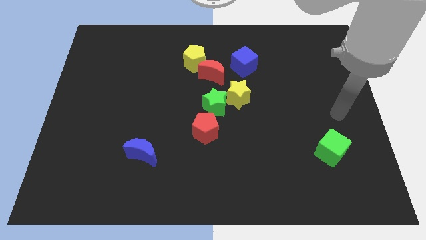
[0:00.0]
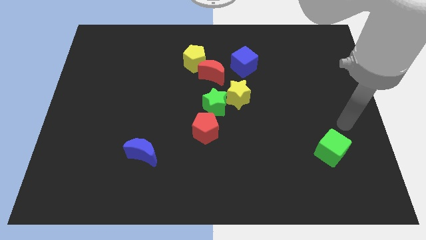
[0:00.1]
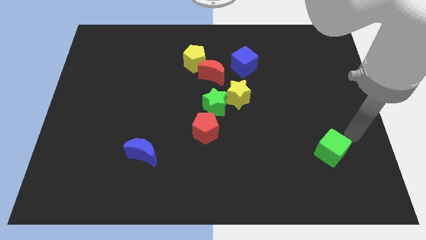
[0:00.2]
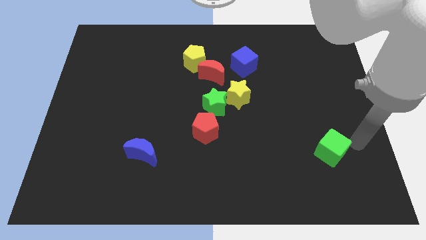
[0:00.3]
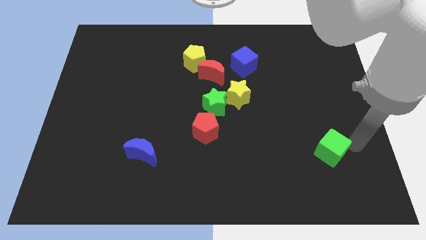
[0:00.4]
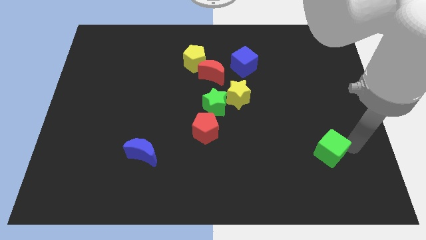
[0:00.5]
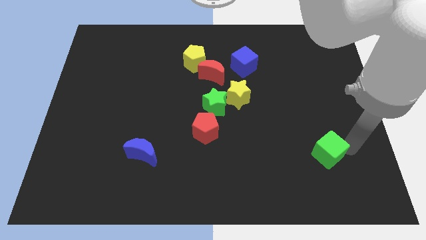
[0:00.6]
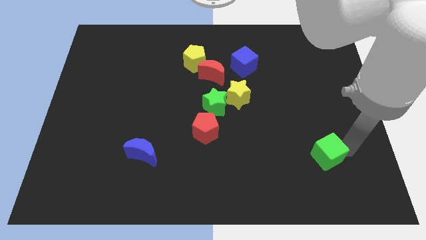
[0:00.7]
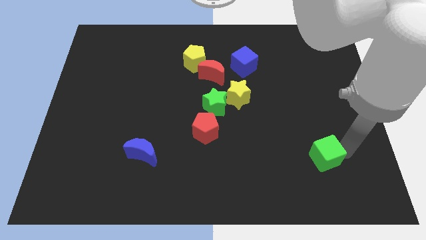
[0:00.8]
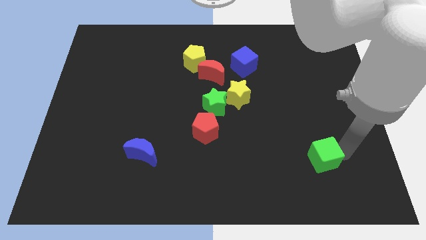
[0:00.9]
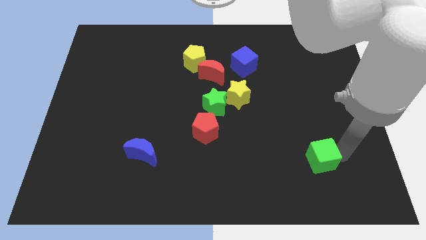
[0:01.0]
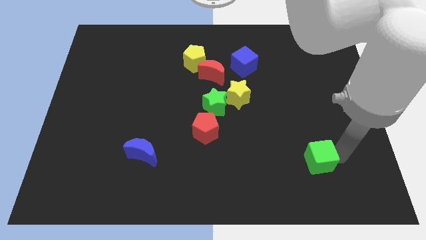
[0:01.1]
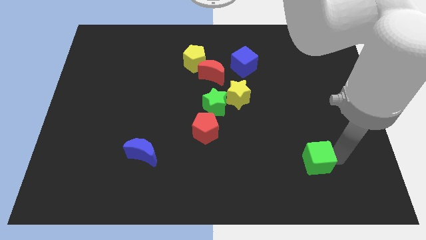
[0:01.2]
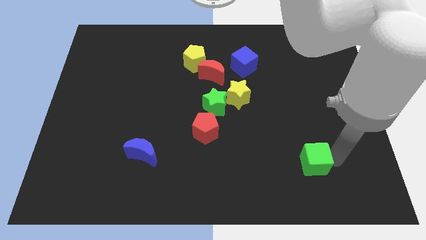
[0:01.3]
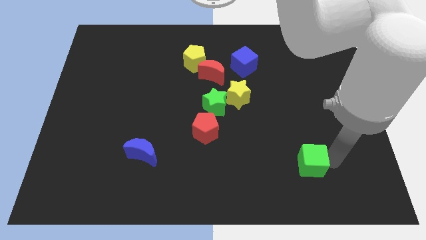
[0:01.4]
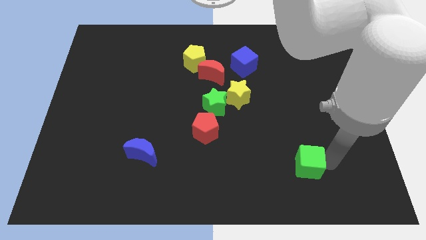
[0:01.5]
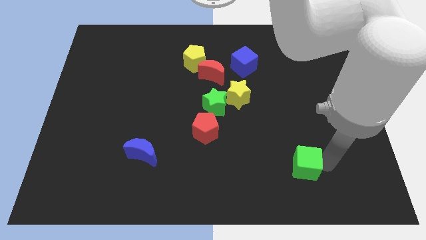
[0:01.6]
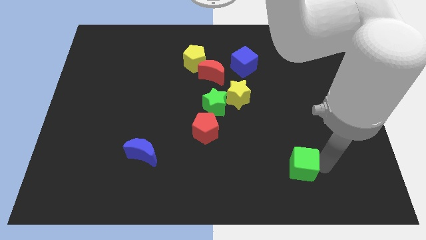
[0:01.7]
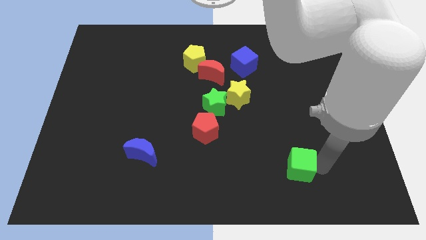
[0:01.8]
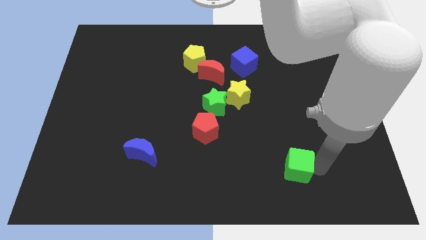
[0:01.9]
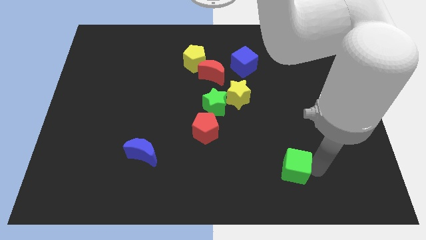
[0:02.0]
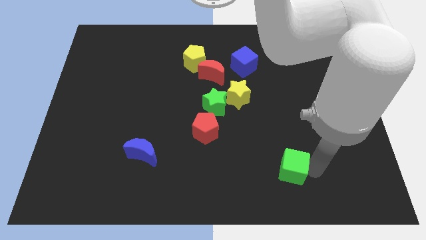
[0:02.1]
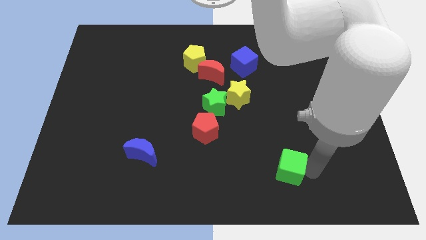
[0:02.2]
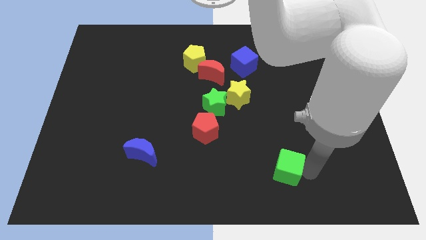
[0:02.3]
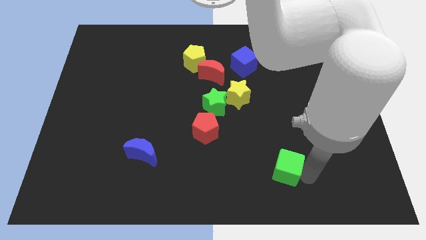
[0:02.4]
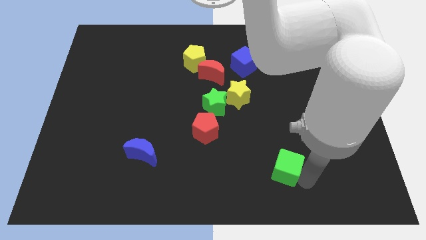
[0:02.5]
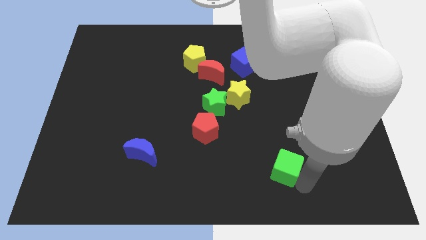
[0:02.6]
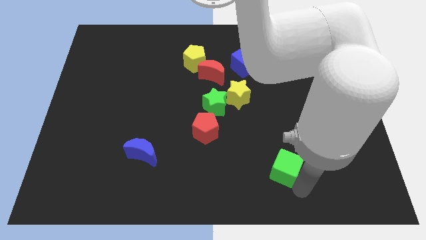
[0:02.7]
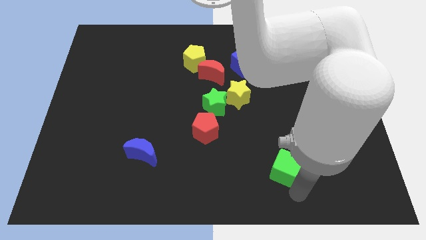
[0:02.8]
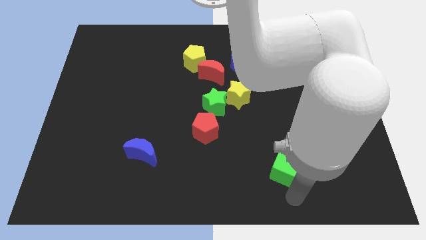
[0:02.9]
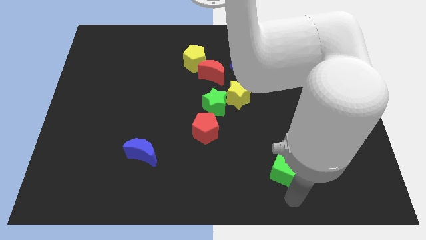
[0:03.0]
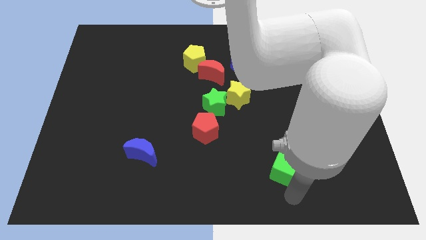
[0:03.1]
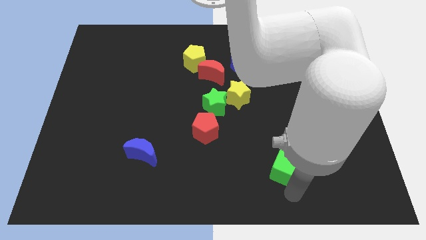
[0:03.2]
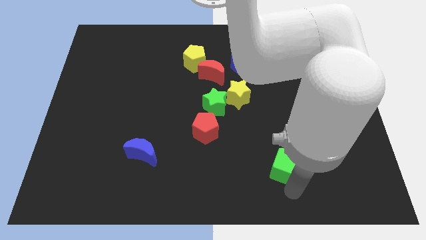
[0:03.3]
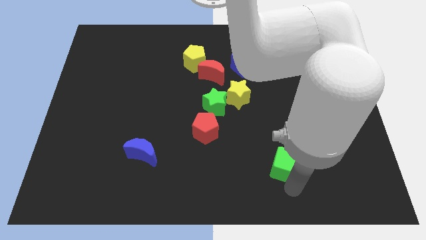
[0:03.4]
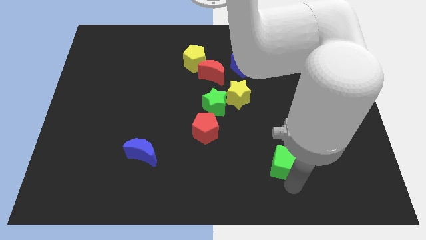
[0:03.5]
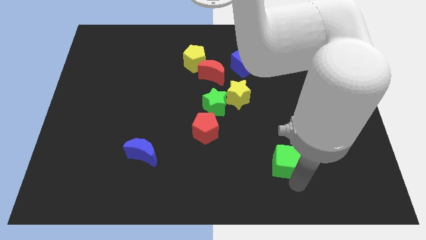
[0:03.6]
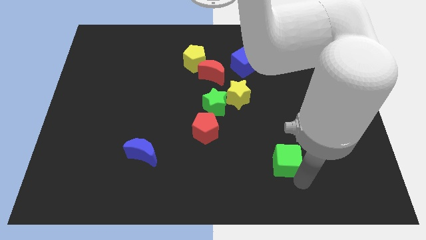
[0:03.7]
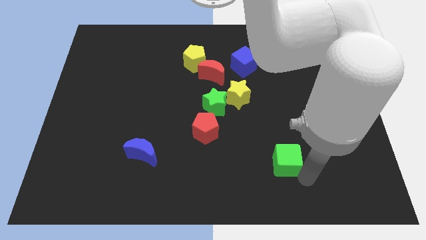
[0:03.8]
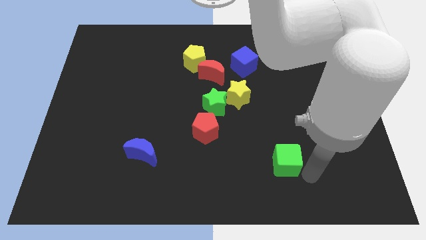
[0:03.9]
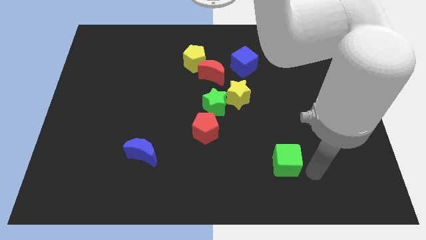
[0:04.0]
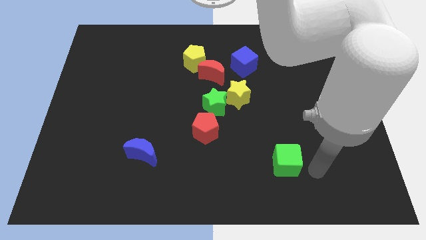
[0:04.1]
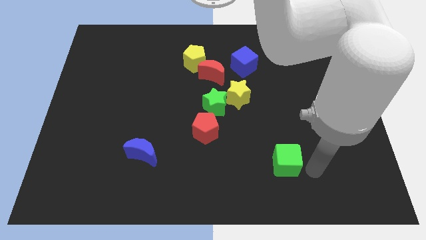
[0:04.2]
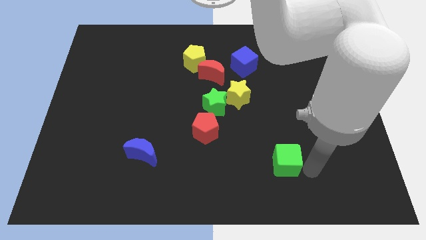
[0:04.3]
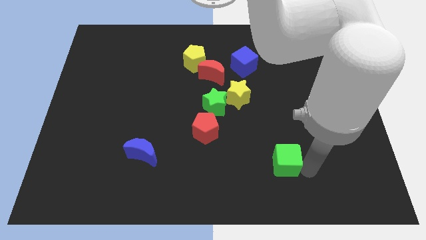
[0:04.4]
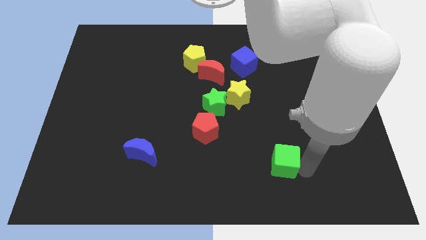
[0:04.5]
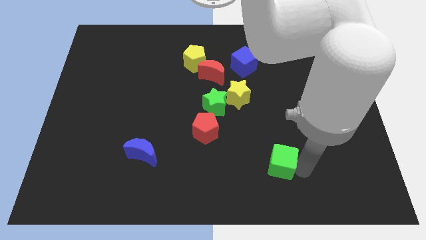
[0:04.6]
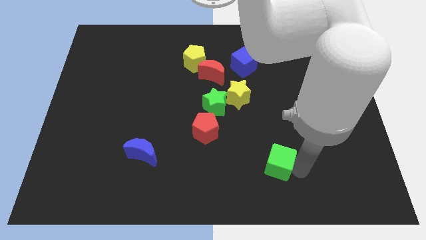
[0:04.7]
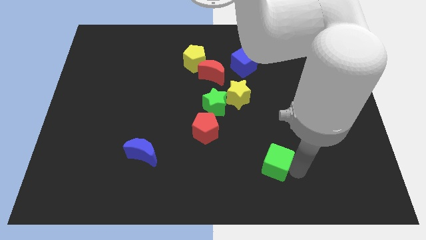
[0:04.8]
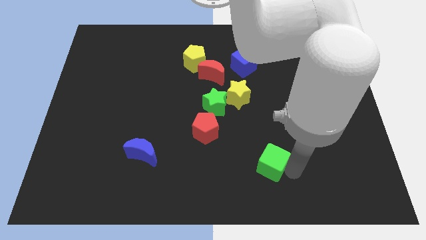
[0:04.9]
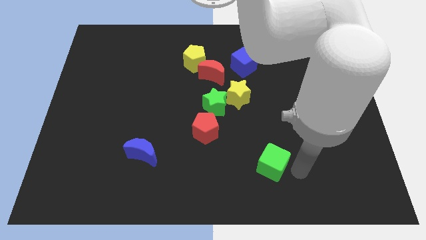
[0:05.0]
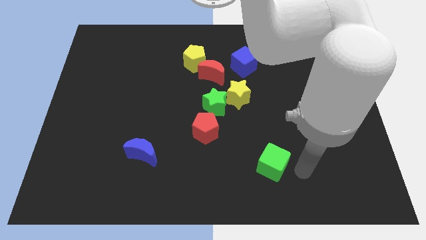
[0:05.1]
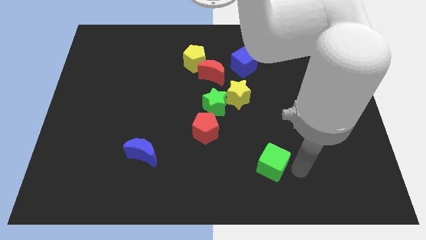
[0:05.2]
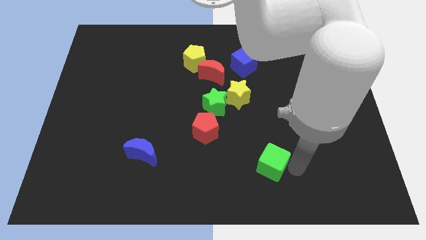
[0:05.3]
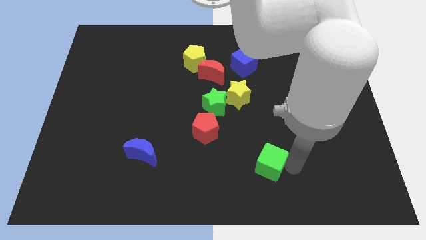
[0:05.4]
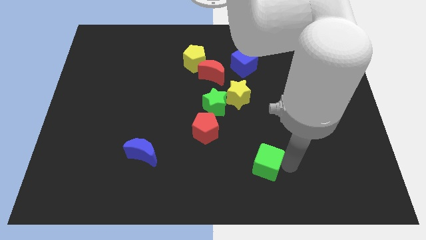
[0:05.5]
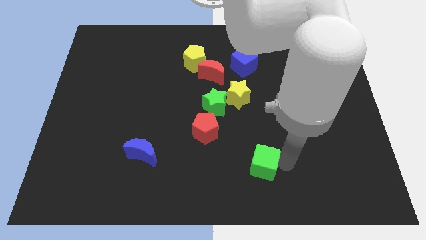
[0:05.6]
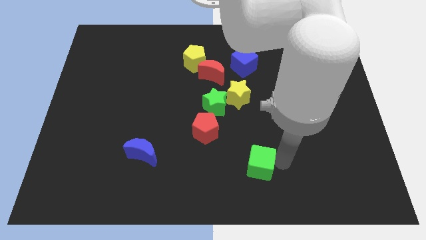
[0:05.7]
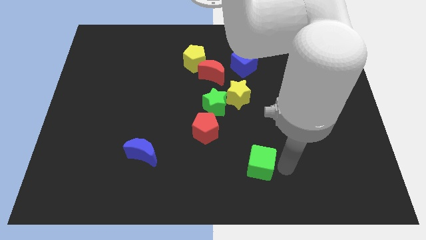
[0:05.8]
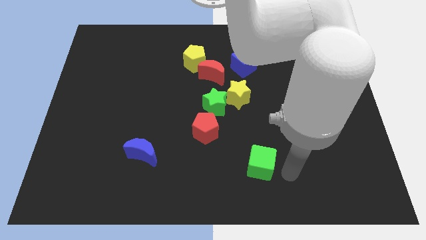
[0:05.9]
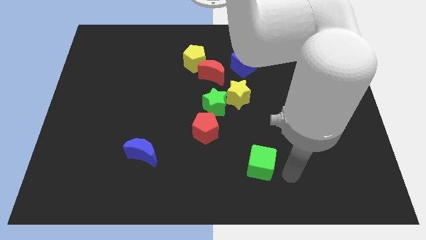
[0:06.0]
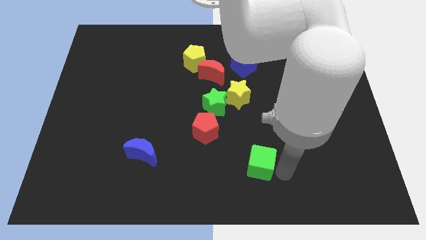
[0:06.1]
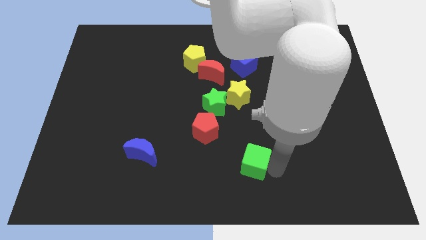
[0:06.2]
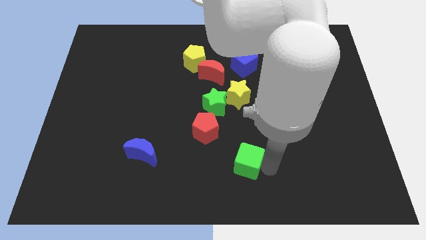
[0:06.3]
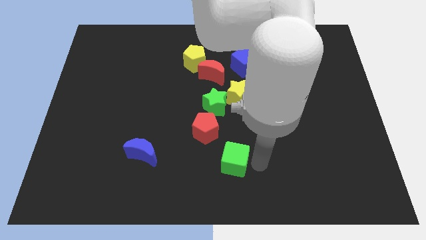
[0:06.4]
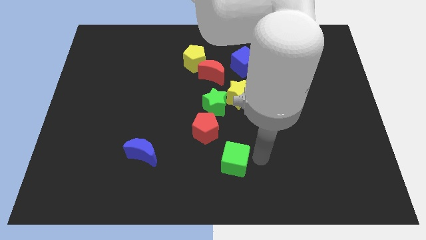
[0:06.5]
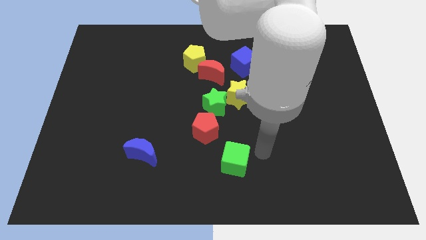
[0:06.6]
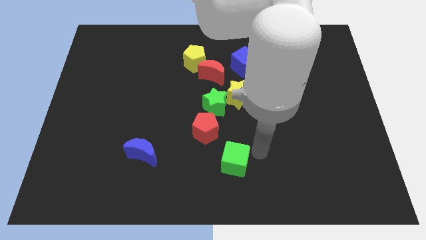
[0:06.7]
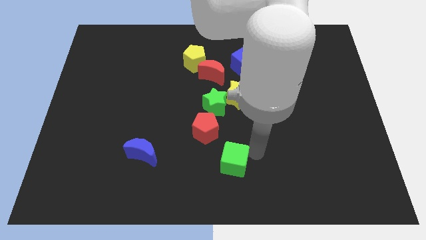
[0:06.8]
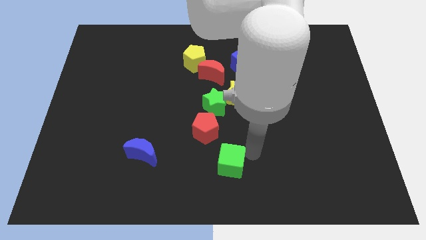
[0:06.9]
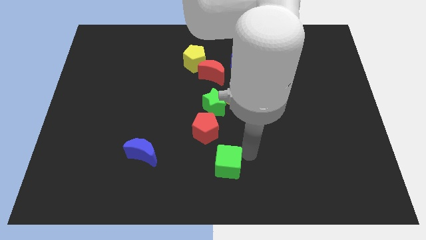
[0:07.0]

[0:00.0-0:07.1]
slide the green cube to the bottom of the red pentagon
